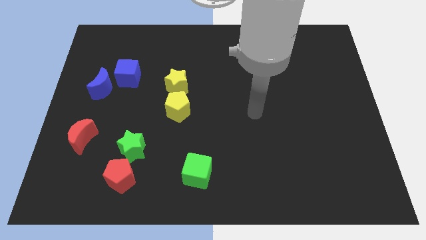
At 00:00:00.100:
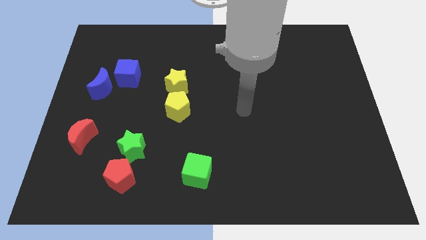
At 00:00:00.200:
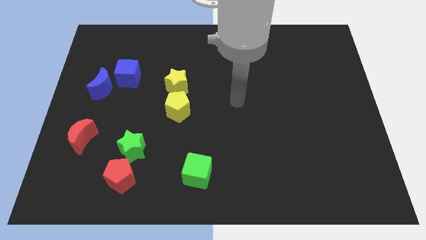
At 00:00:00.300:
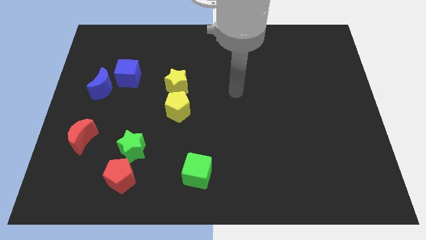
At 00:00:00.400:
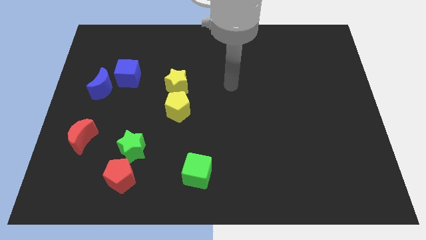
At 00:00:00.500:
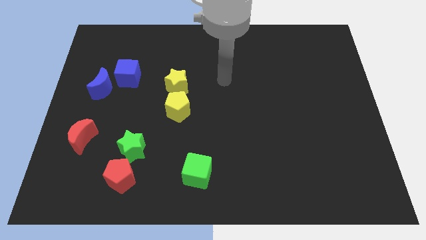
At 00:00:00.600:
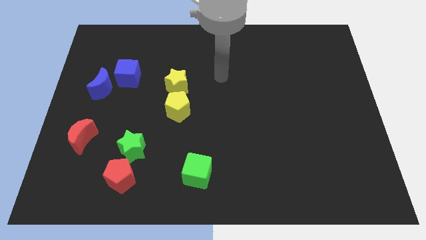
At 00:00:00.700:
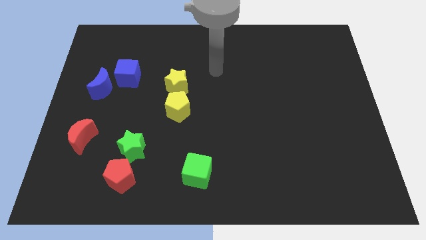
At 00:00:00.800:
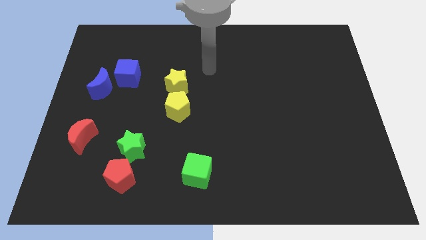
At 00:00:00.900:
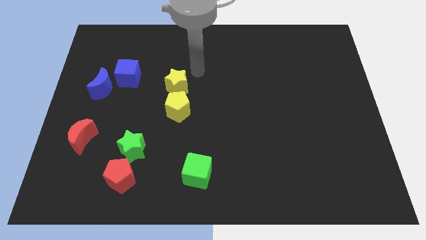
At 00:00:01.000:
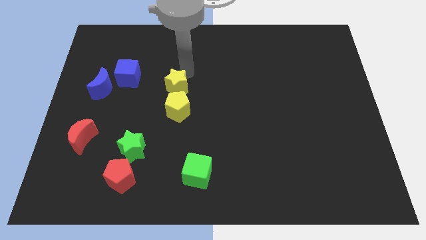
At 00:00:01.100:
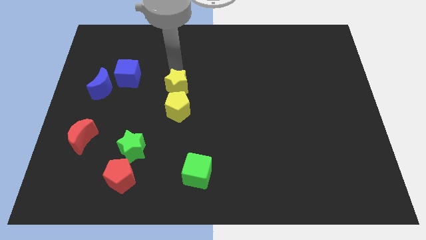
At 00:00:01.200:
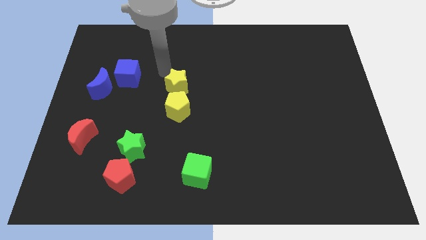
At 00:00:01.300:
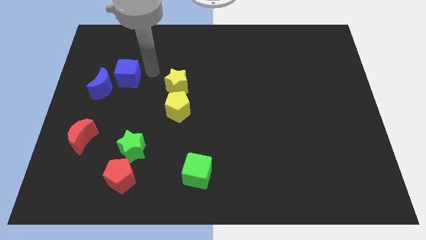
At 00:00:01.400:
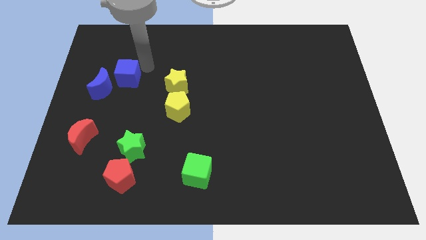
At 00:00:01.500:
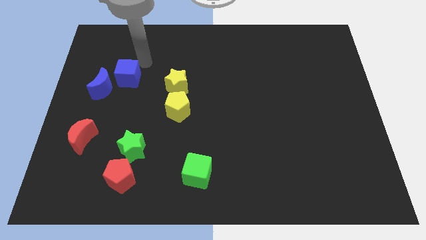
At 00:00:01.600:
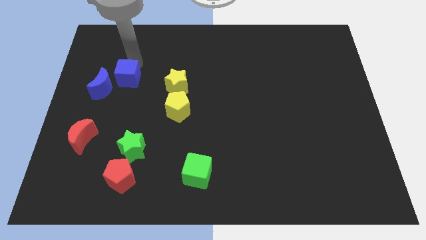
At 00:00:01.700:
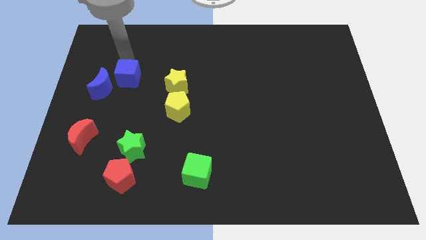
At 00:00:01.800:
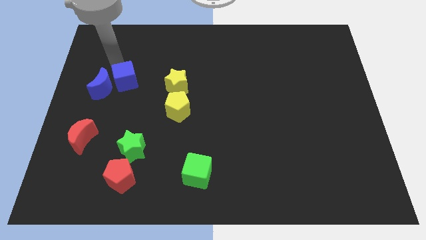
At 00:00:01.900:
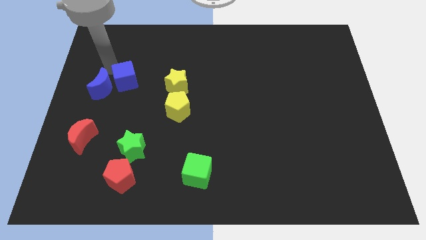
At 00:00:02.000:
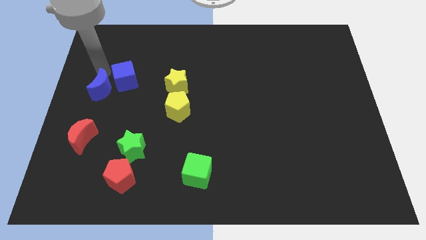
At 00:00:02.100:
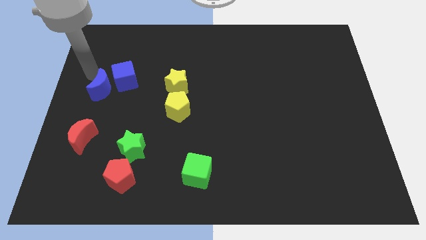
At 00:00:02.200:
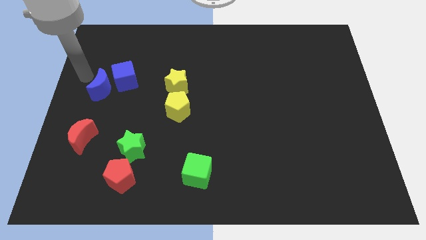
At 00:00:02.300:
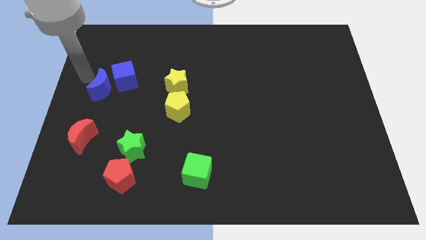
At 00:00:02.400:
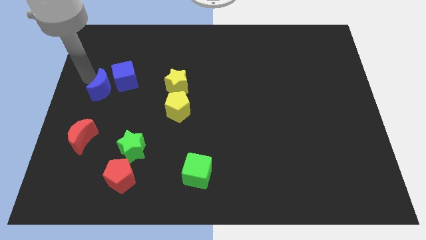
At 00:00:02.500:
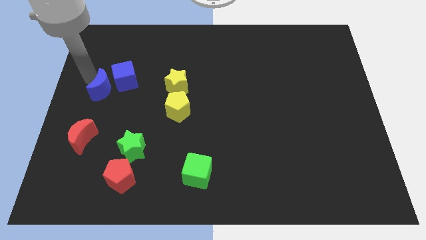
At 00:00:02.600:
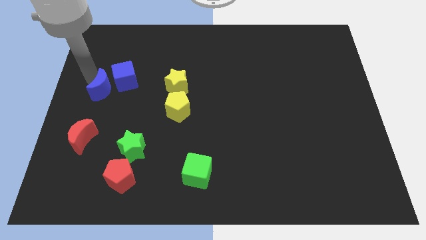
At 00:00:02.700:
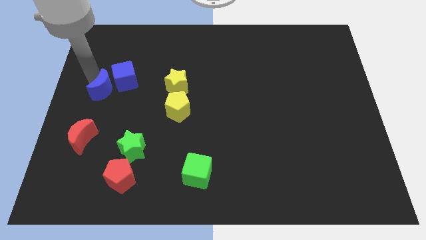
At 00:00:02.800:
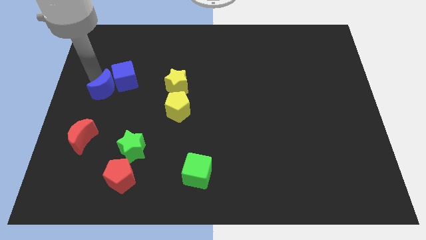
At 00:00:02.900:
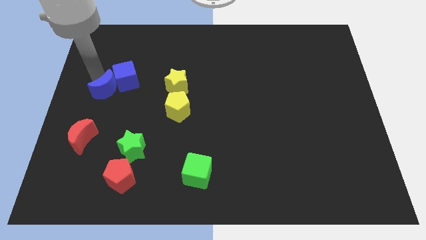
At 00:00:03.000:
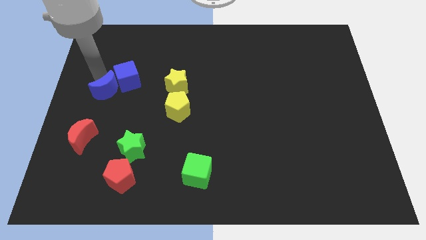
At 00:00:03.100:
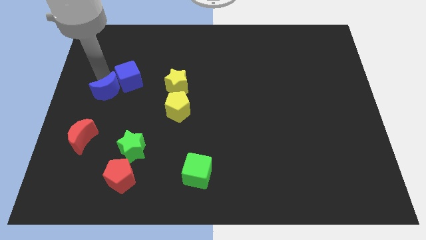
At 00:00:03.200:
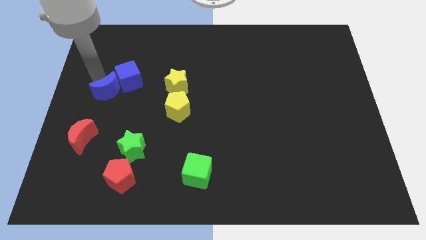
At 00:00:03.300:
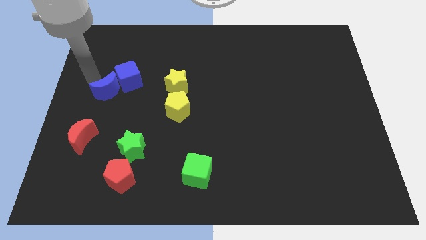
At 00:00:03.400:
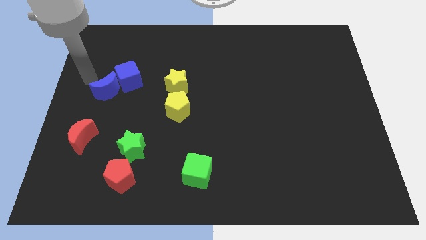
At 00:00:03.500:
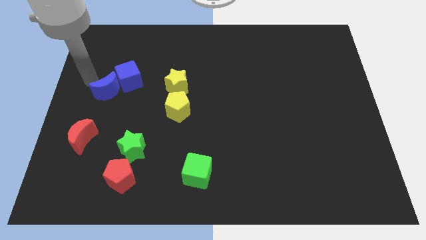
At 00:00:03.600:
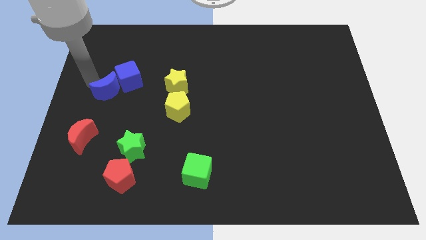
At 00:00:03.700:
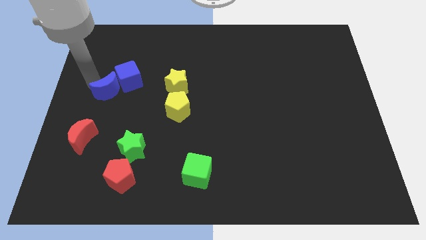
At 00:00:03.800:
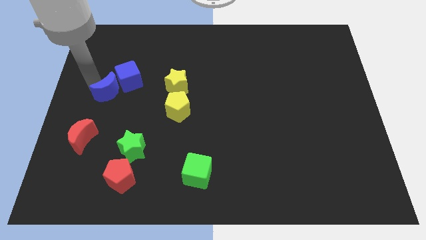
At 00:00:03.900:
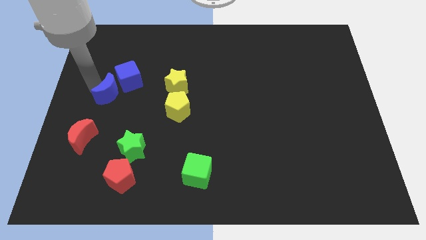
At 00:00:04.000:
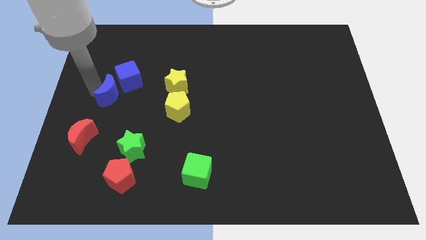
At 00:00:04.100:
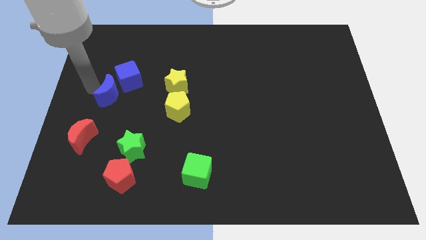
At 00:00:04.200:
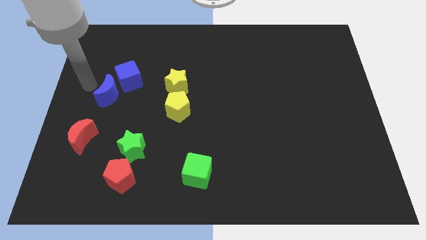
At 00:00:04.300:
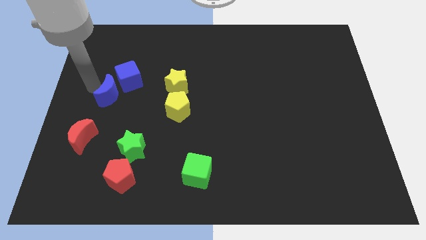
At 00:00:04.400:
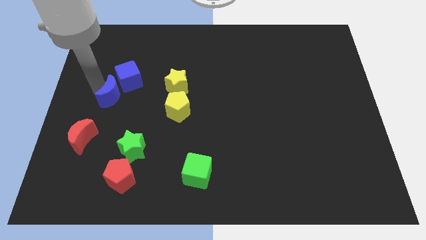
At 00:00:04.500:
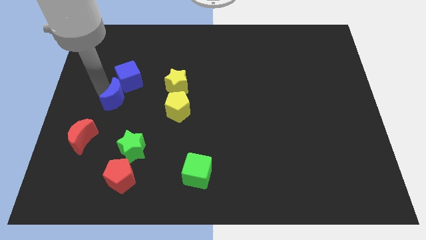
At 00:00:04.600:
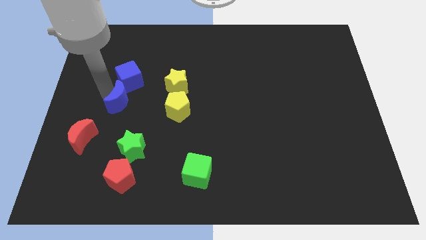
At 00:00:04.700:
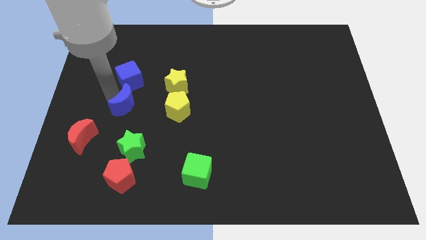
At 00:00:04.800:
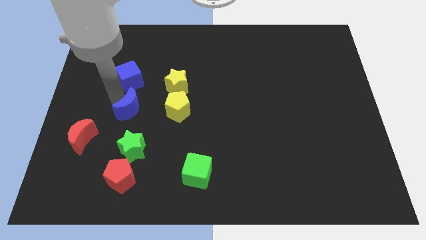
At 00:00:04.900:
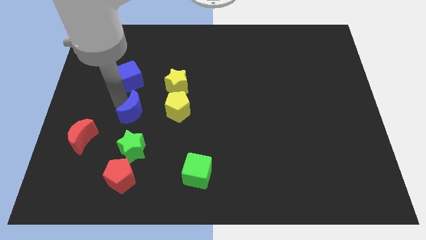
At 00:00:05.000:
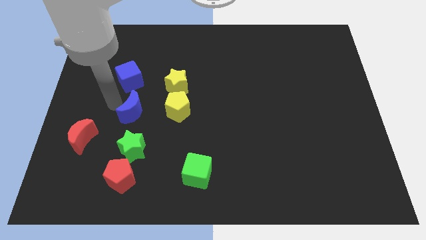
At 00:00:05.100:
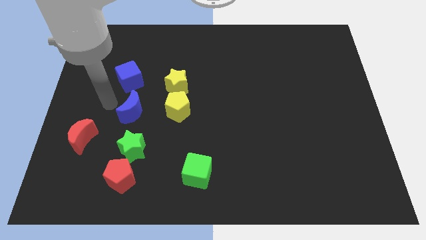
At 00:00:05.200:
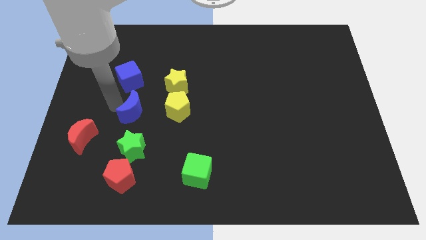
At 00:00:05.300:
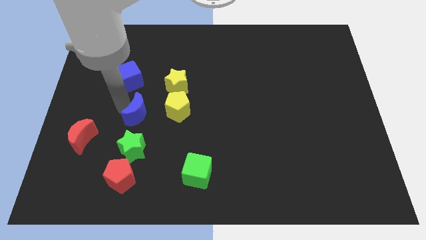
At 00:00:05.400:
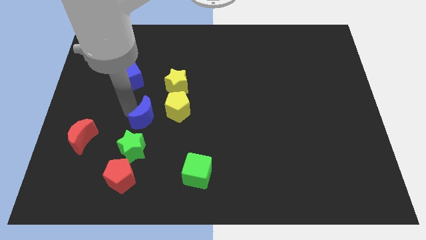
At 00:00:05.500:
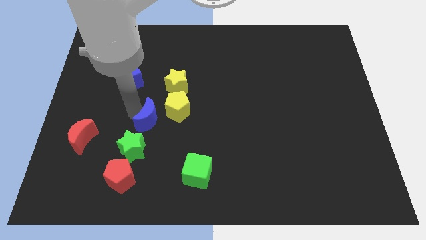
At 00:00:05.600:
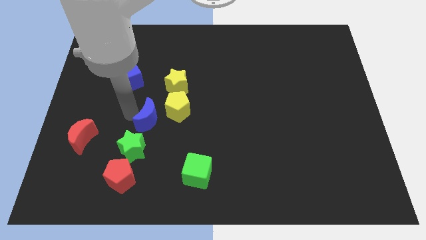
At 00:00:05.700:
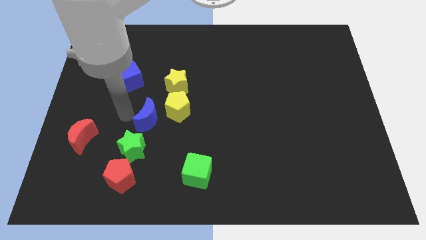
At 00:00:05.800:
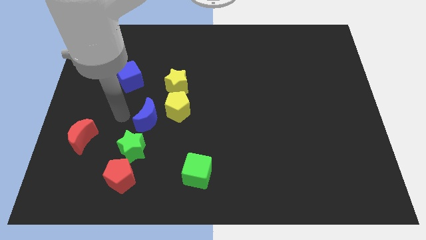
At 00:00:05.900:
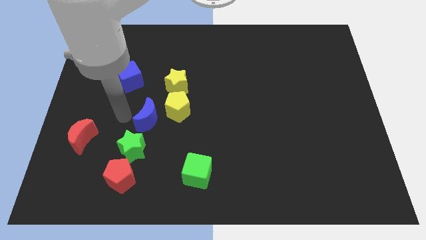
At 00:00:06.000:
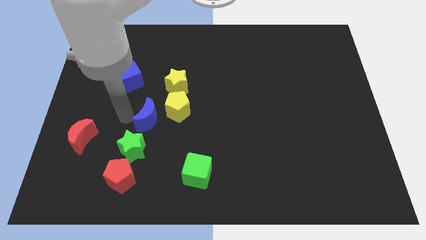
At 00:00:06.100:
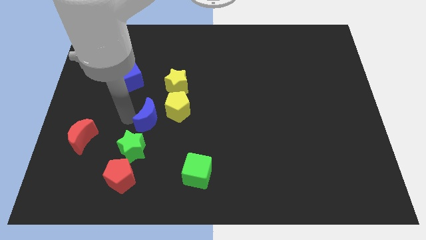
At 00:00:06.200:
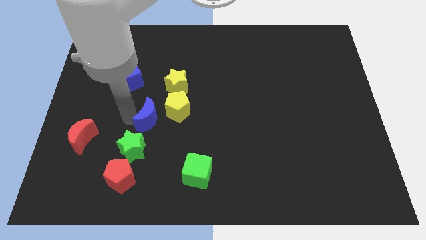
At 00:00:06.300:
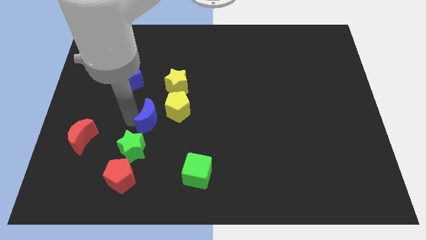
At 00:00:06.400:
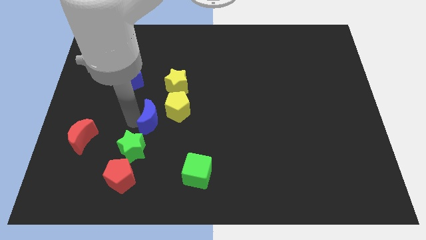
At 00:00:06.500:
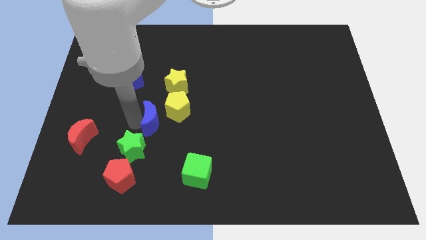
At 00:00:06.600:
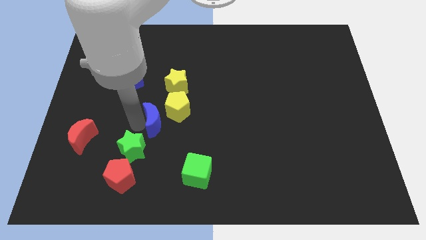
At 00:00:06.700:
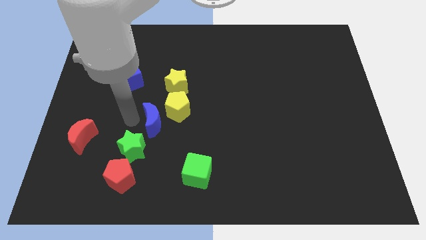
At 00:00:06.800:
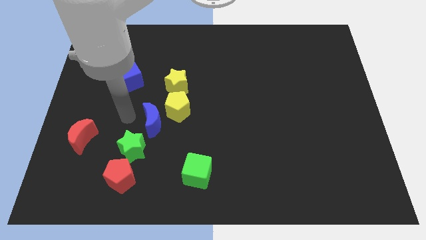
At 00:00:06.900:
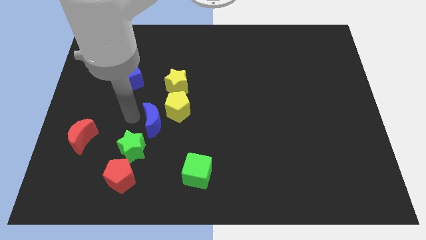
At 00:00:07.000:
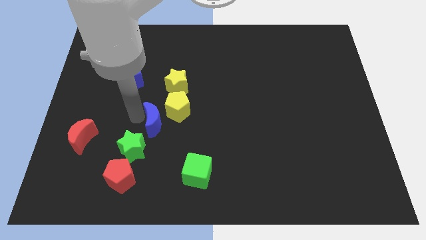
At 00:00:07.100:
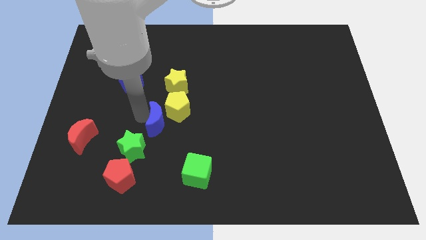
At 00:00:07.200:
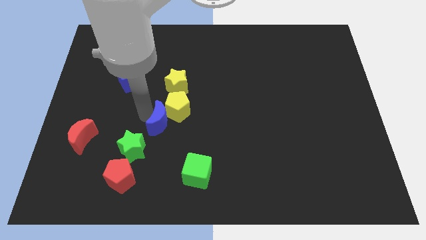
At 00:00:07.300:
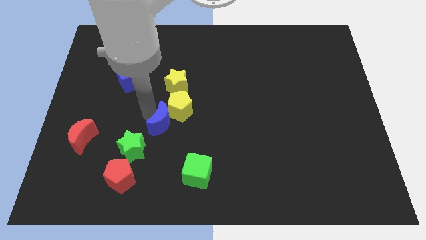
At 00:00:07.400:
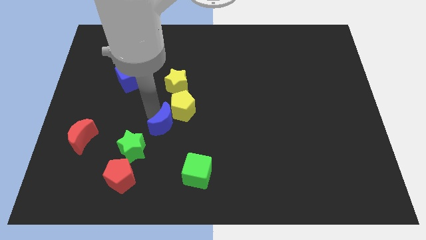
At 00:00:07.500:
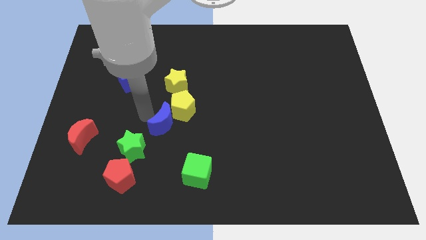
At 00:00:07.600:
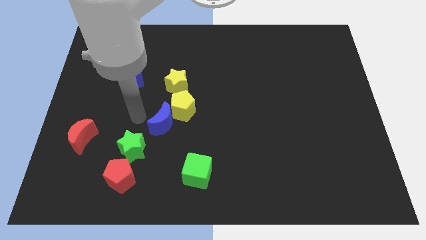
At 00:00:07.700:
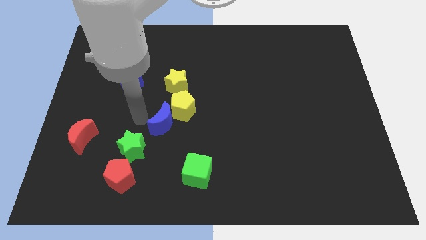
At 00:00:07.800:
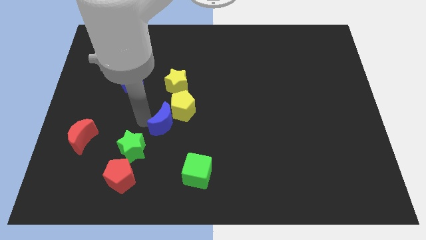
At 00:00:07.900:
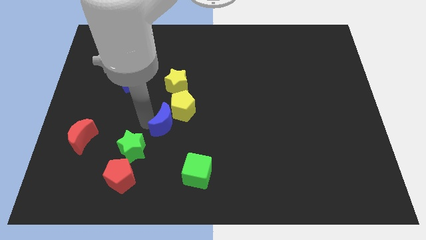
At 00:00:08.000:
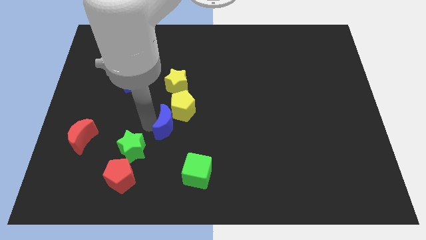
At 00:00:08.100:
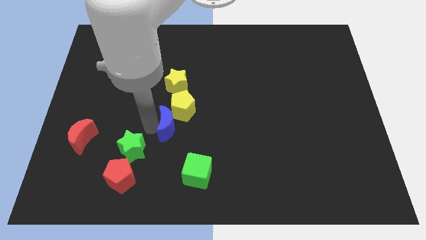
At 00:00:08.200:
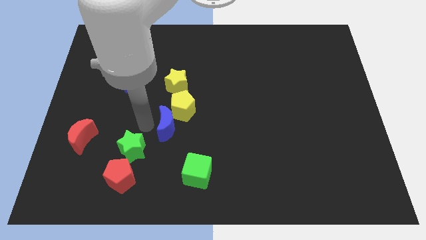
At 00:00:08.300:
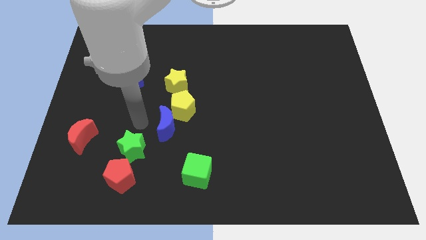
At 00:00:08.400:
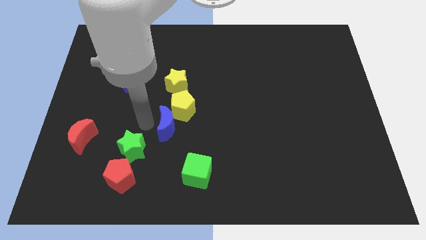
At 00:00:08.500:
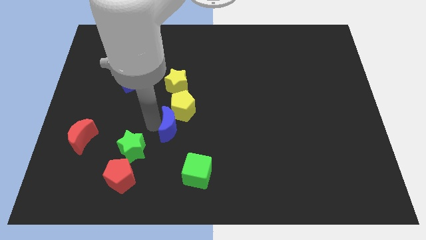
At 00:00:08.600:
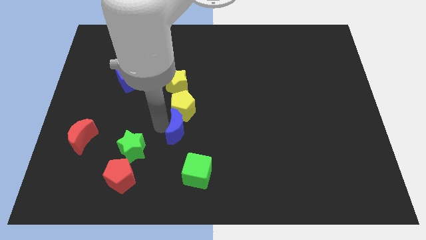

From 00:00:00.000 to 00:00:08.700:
push the blue moon to the top side of the green cube
